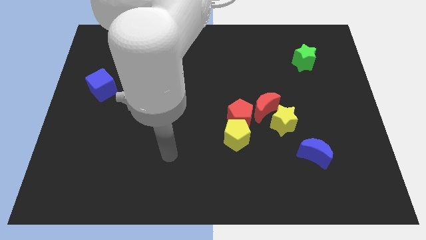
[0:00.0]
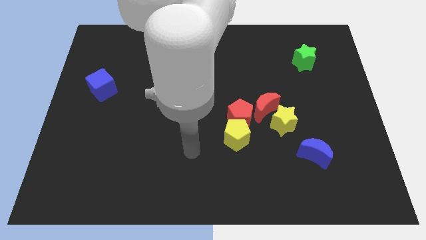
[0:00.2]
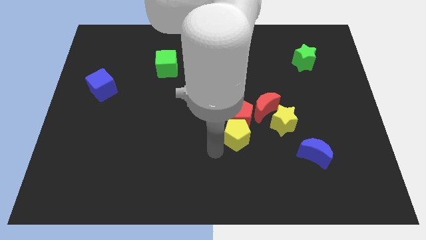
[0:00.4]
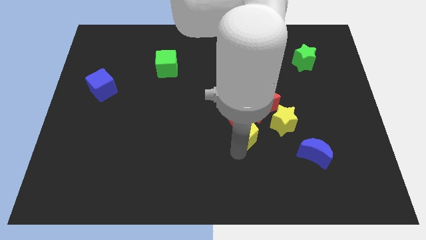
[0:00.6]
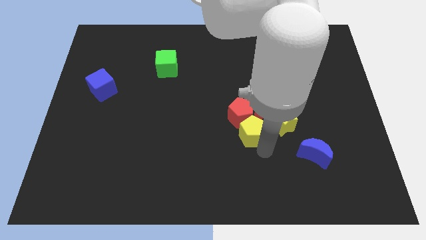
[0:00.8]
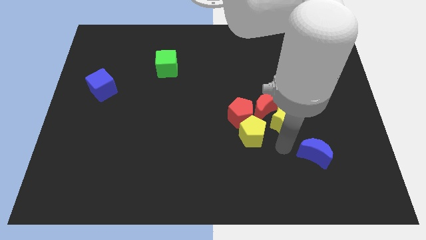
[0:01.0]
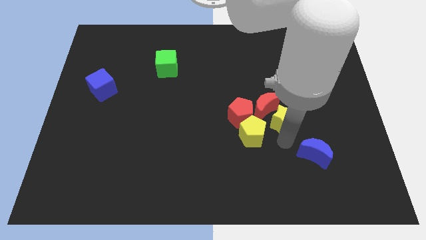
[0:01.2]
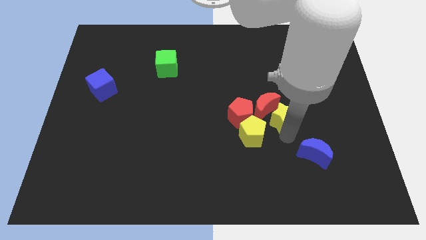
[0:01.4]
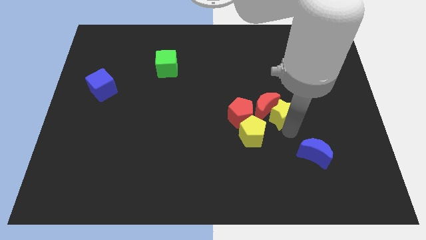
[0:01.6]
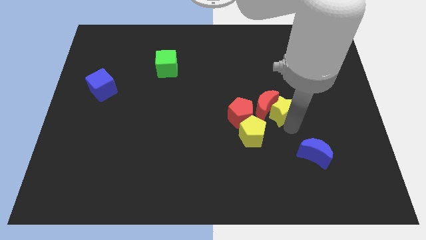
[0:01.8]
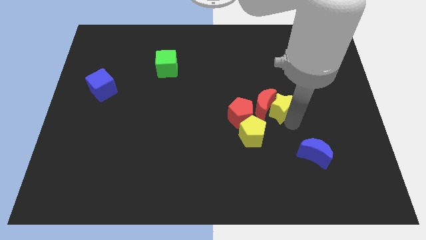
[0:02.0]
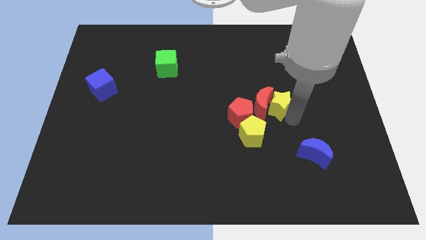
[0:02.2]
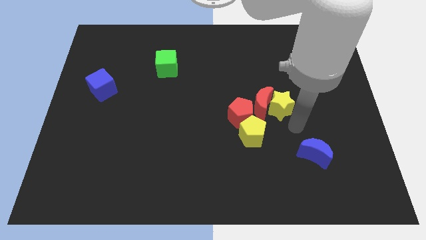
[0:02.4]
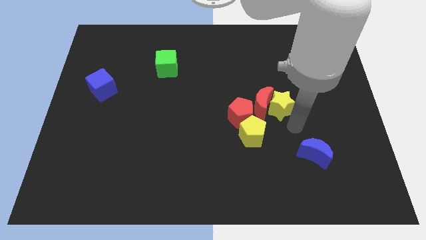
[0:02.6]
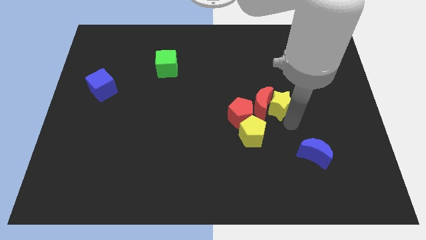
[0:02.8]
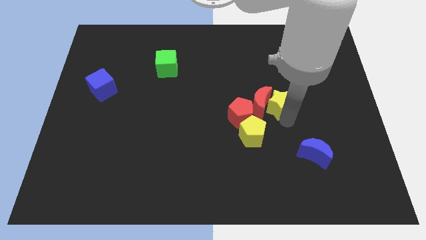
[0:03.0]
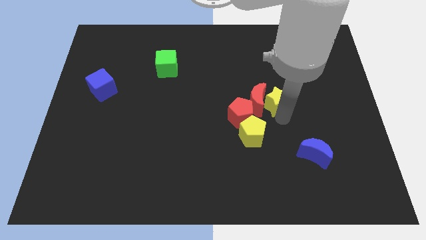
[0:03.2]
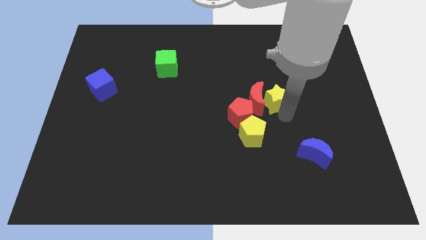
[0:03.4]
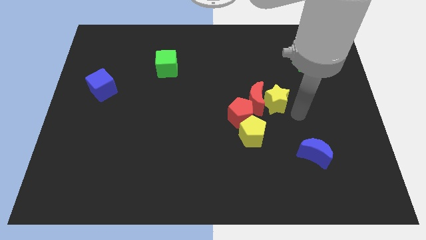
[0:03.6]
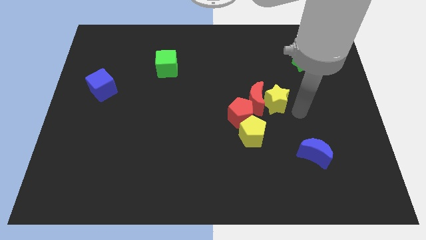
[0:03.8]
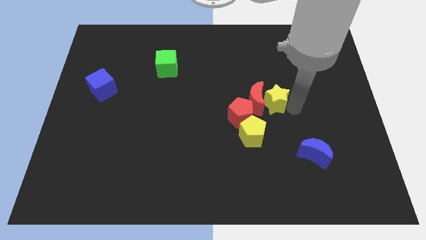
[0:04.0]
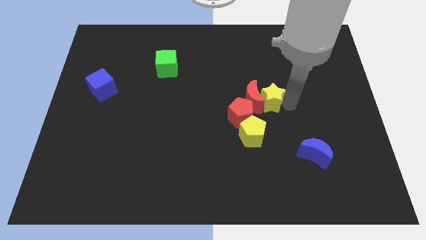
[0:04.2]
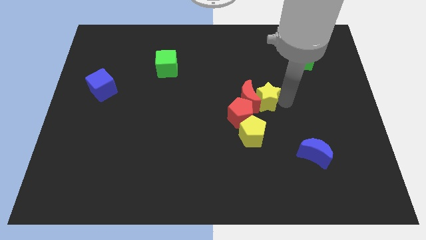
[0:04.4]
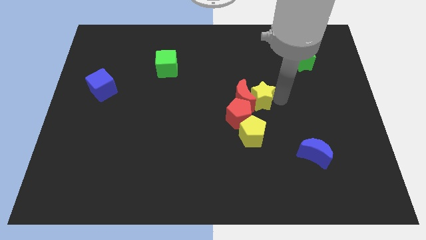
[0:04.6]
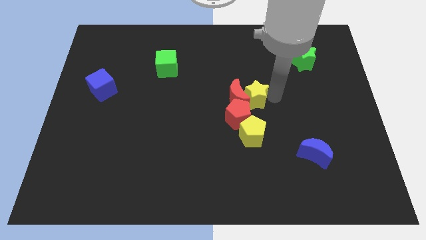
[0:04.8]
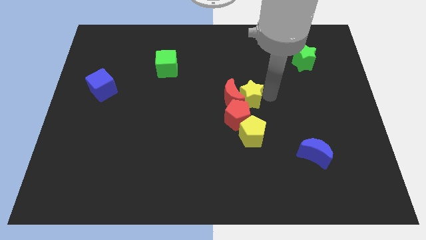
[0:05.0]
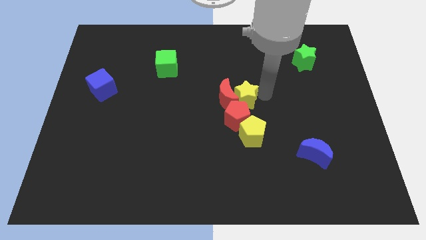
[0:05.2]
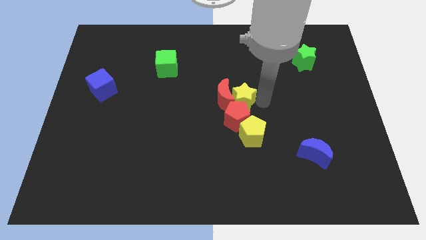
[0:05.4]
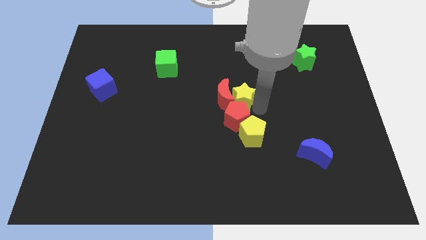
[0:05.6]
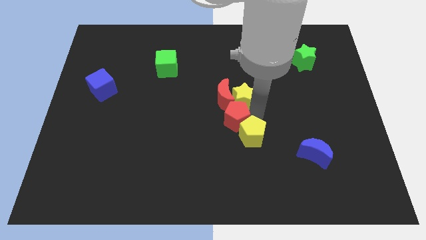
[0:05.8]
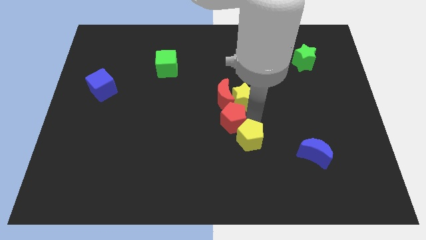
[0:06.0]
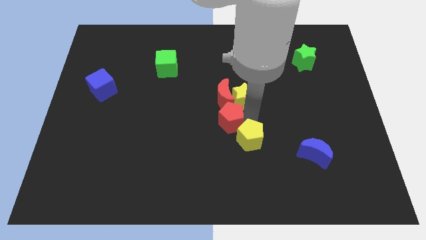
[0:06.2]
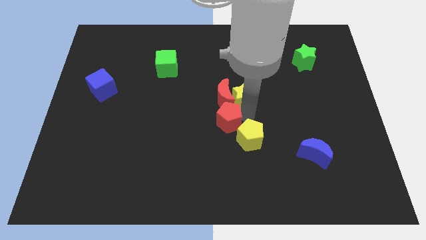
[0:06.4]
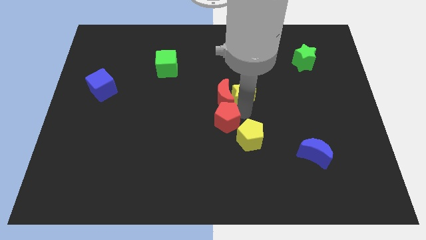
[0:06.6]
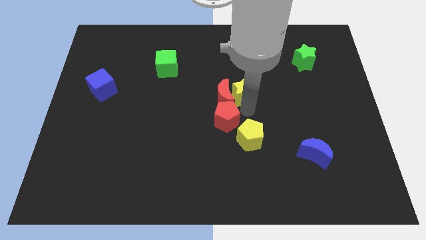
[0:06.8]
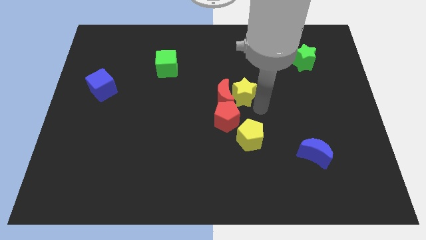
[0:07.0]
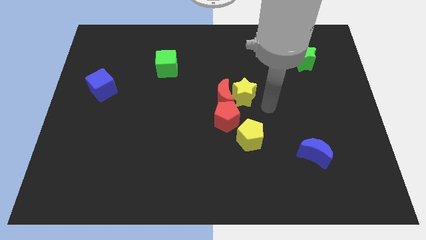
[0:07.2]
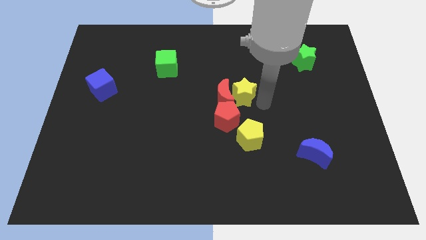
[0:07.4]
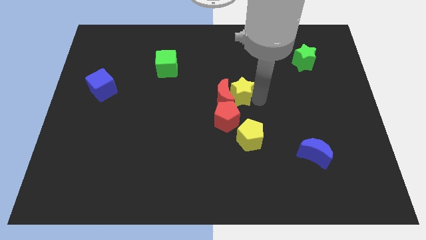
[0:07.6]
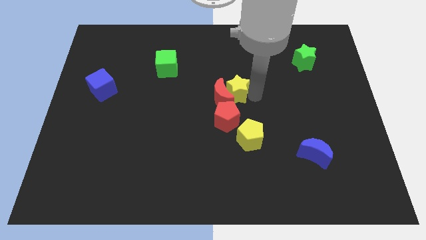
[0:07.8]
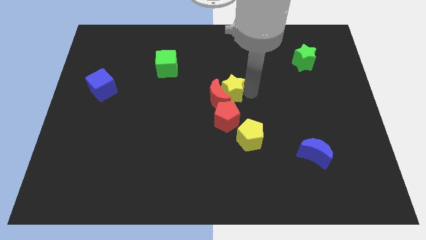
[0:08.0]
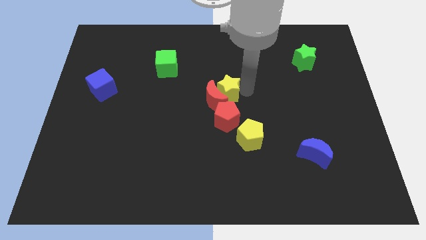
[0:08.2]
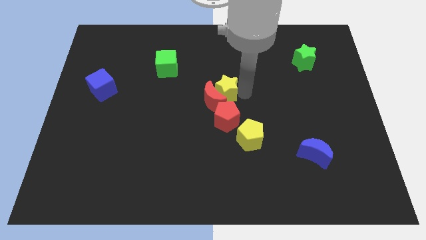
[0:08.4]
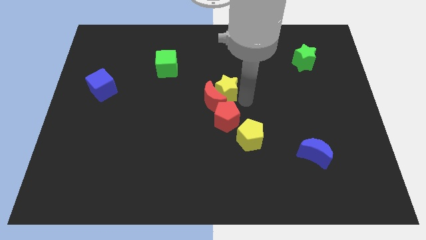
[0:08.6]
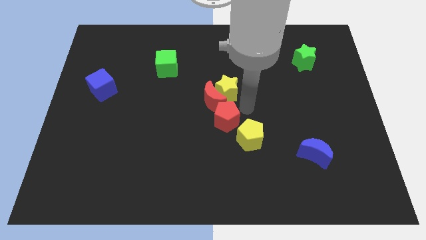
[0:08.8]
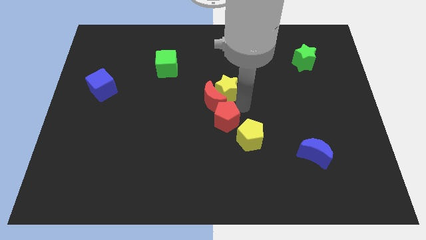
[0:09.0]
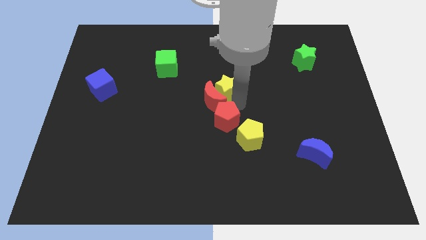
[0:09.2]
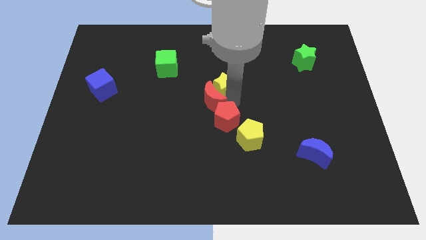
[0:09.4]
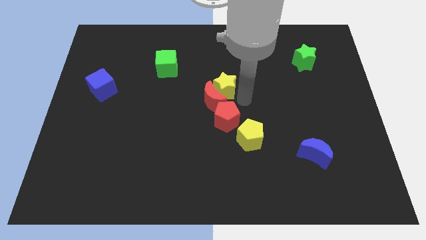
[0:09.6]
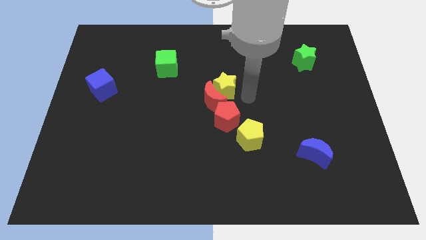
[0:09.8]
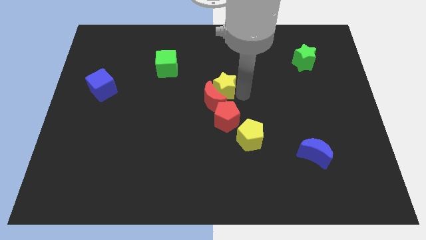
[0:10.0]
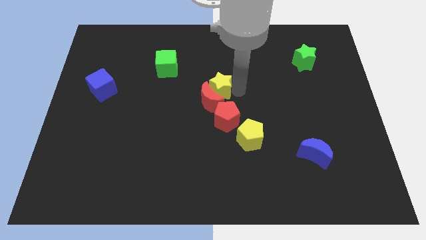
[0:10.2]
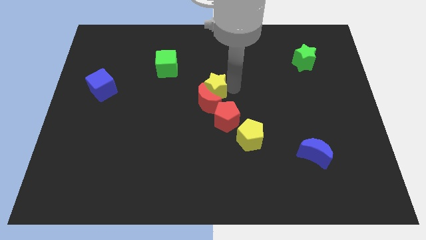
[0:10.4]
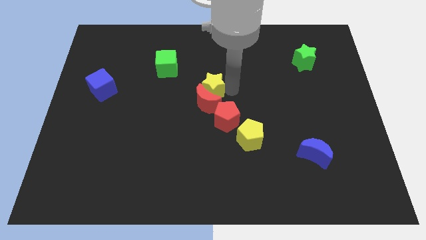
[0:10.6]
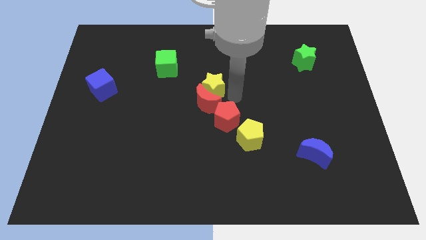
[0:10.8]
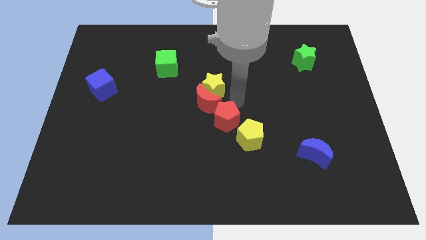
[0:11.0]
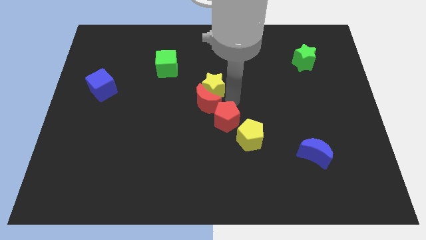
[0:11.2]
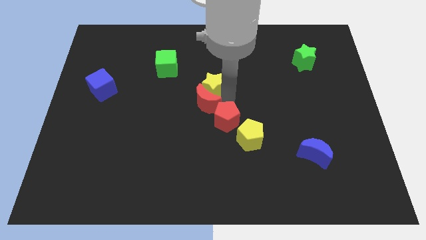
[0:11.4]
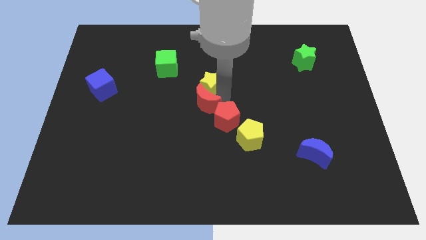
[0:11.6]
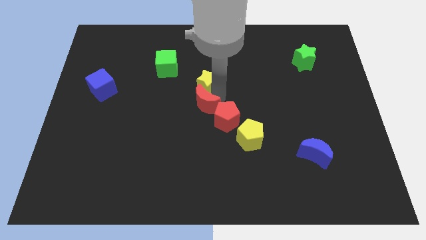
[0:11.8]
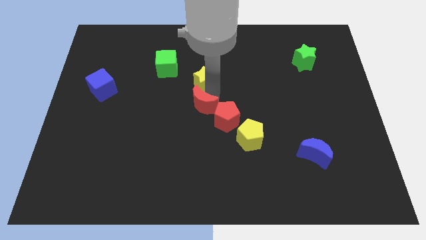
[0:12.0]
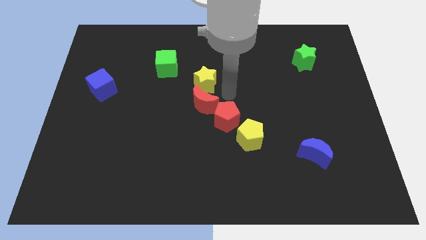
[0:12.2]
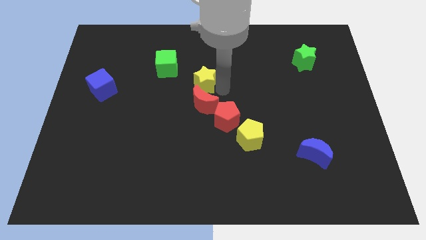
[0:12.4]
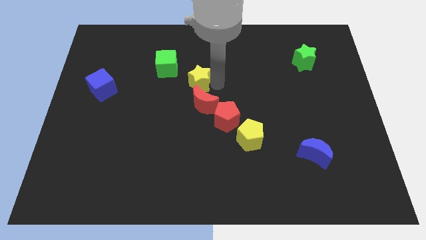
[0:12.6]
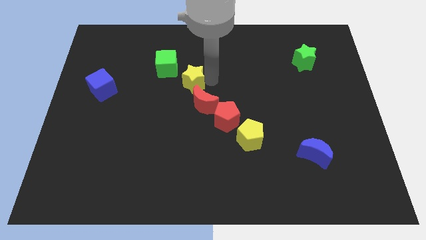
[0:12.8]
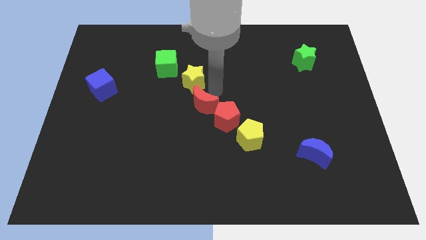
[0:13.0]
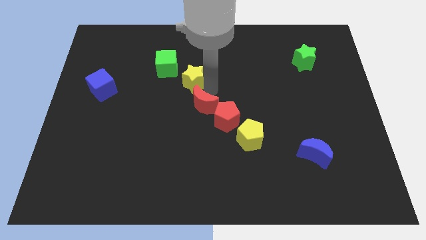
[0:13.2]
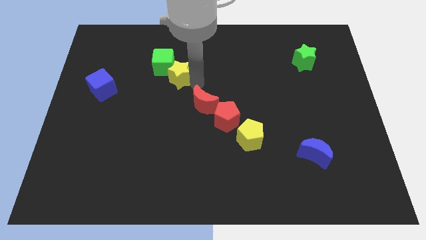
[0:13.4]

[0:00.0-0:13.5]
slide the yellow star close to the green cube

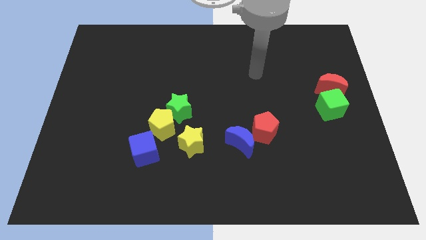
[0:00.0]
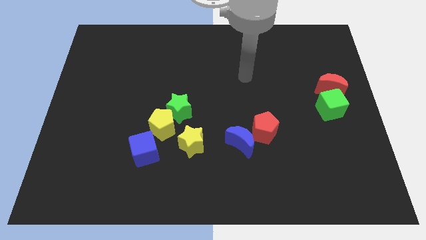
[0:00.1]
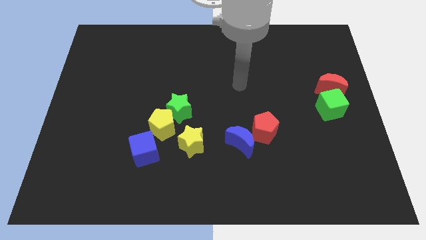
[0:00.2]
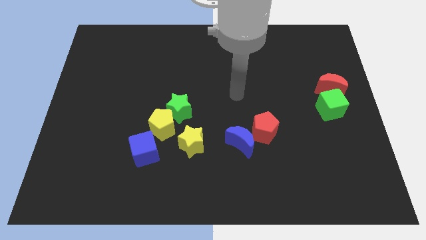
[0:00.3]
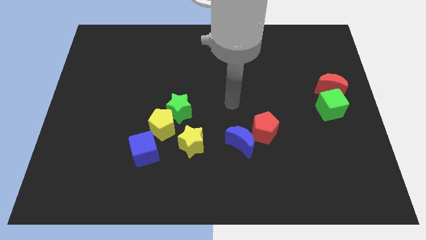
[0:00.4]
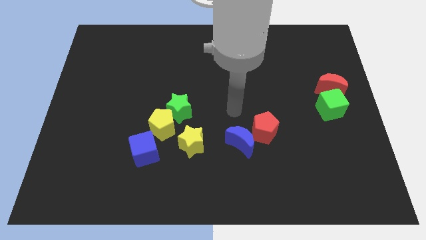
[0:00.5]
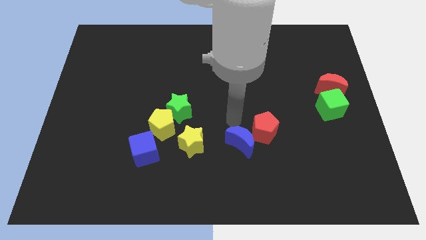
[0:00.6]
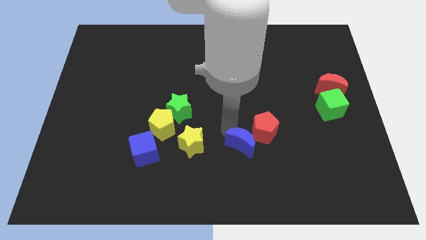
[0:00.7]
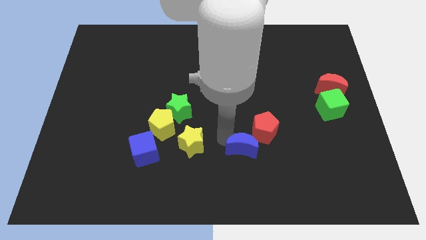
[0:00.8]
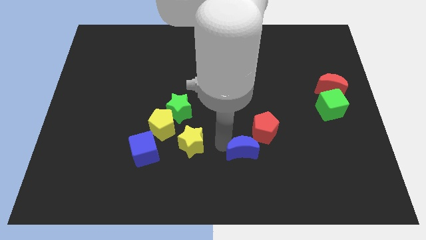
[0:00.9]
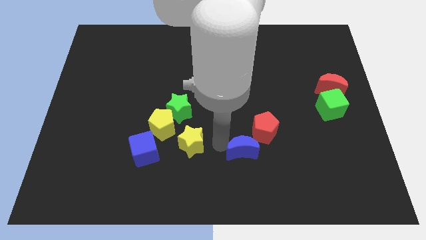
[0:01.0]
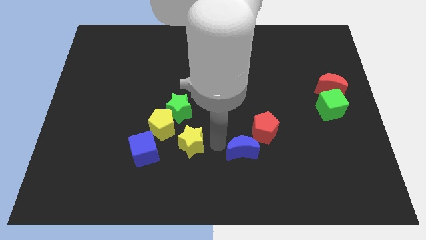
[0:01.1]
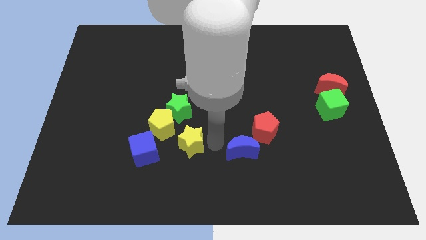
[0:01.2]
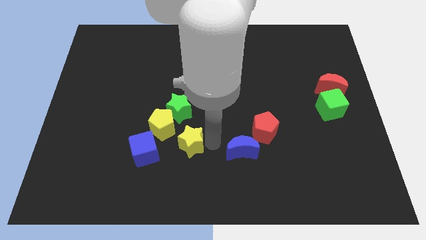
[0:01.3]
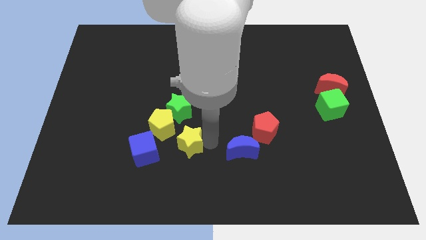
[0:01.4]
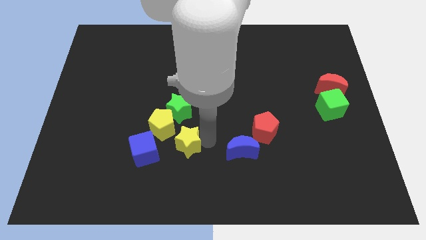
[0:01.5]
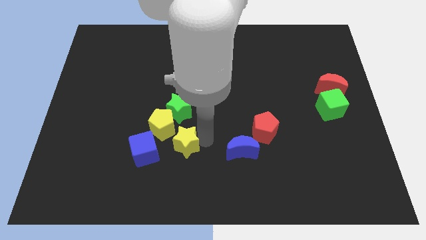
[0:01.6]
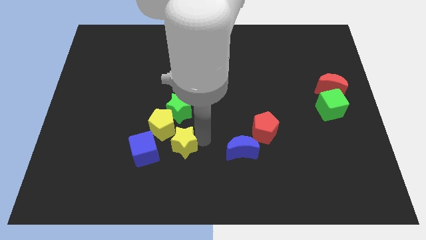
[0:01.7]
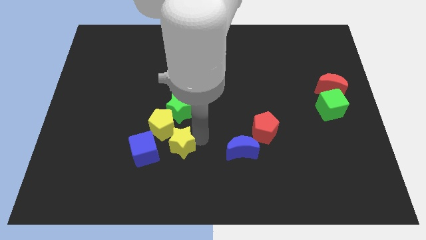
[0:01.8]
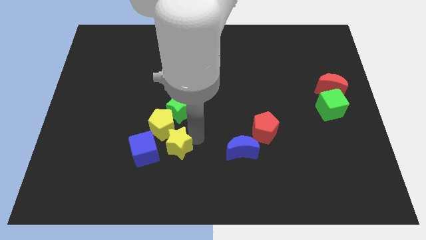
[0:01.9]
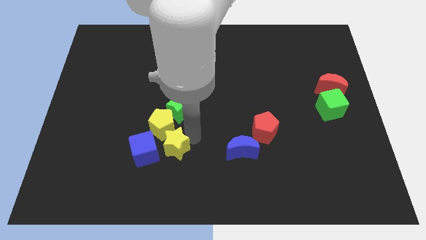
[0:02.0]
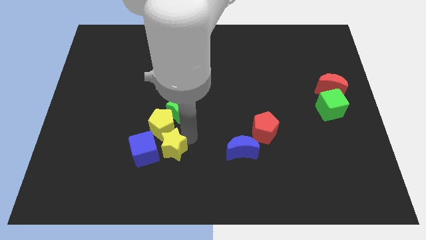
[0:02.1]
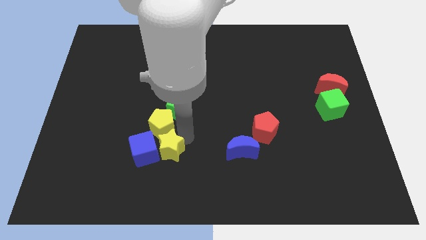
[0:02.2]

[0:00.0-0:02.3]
slide the yellow star to the blue cube
